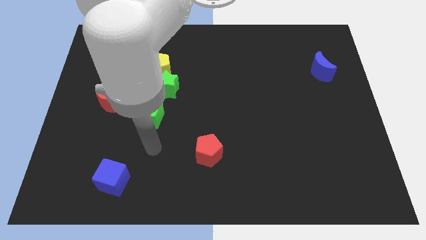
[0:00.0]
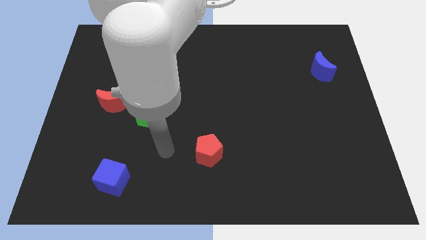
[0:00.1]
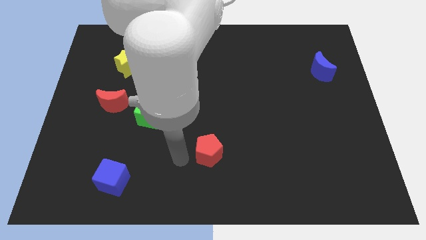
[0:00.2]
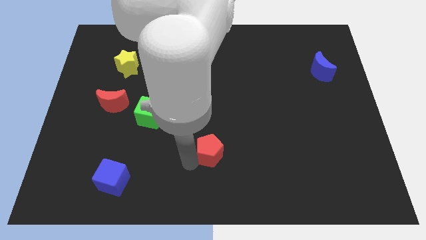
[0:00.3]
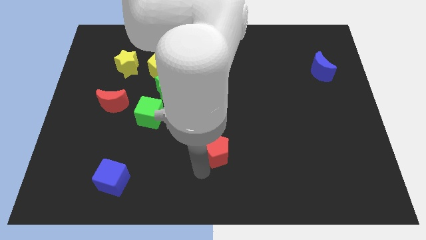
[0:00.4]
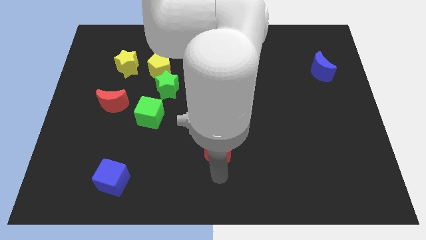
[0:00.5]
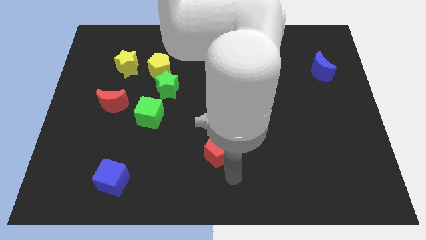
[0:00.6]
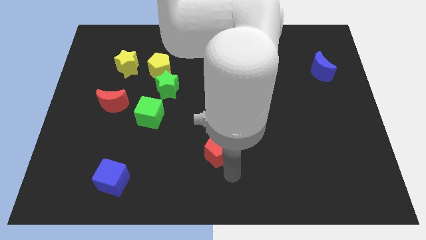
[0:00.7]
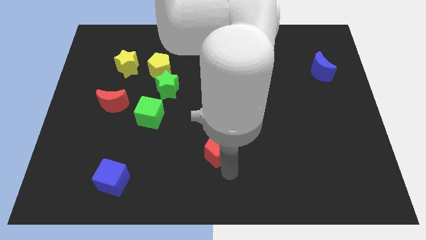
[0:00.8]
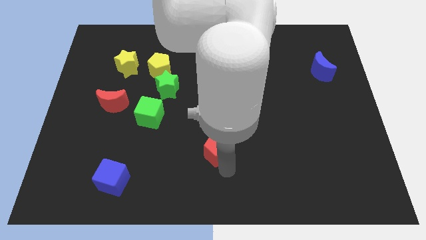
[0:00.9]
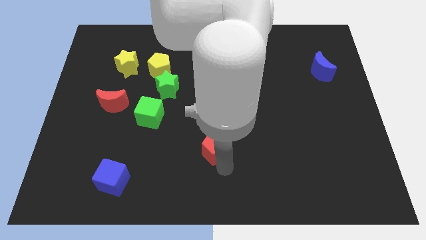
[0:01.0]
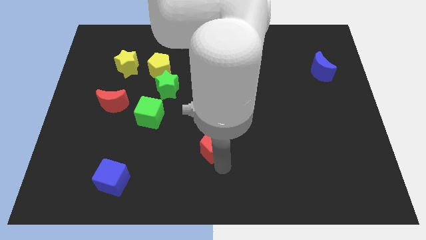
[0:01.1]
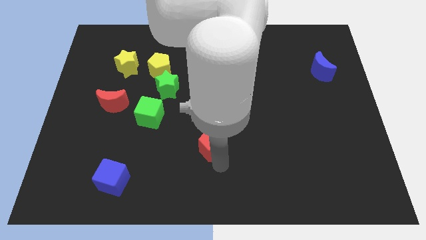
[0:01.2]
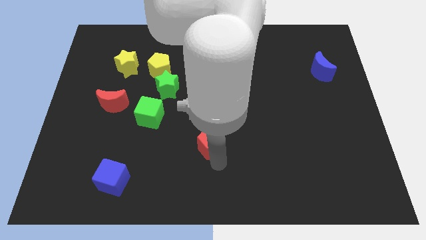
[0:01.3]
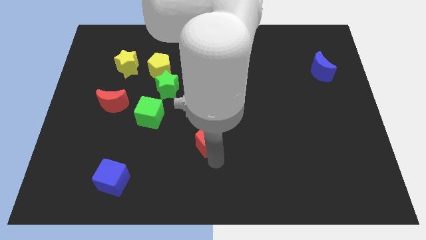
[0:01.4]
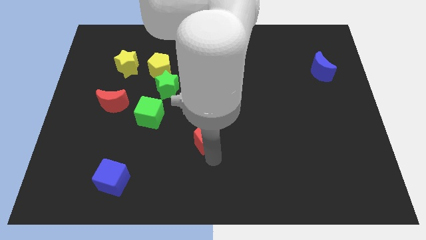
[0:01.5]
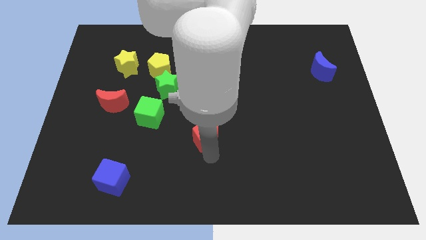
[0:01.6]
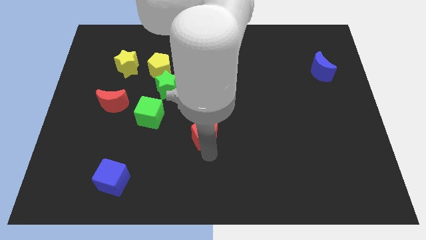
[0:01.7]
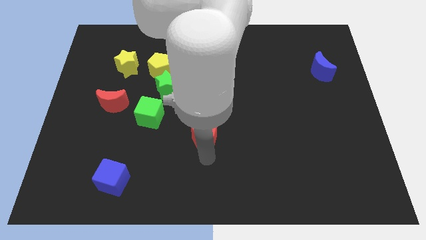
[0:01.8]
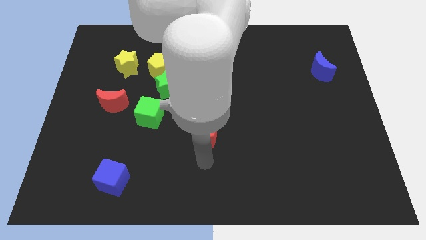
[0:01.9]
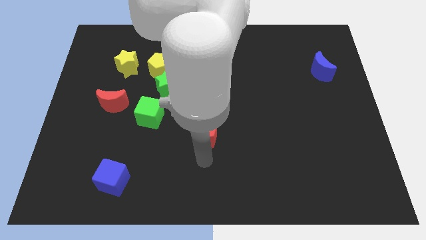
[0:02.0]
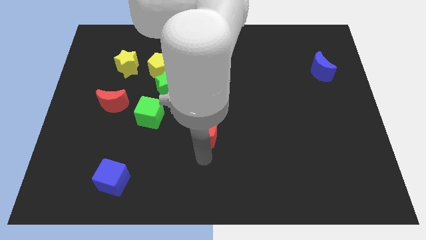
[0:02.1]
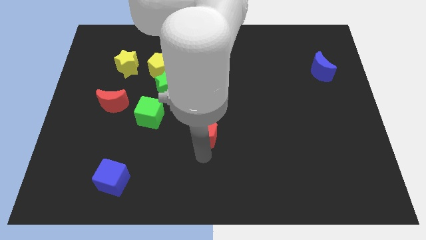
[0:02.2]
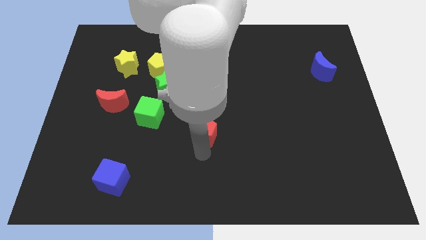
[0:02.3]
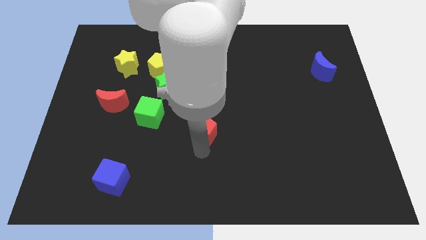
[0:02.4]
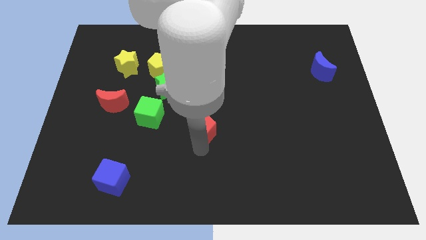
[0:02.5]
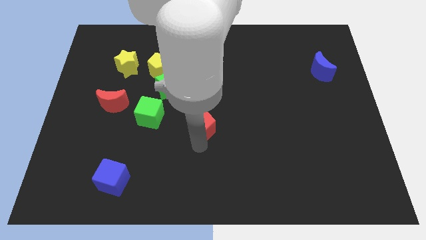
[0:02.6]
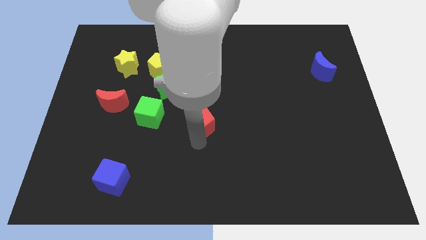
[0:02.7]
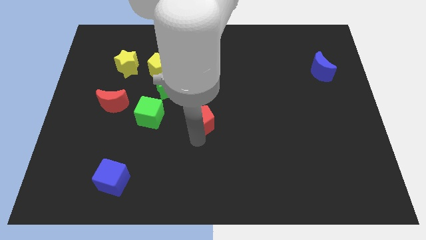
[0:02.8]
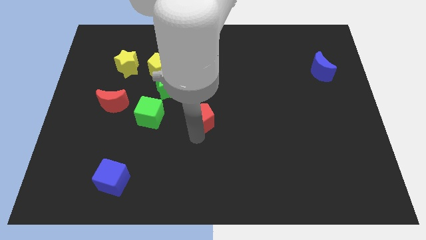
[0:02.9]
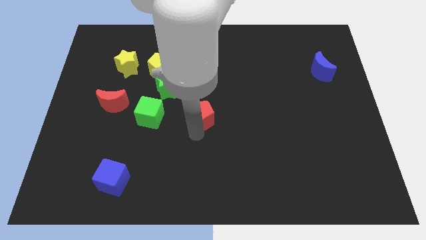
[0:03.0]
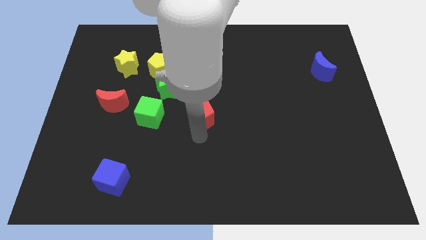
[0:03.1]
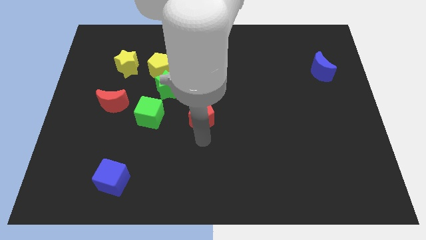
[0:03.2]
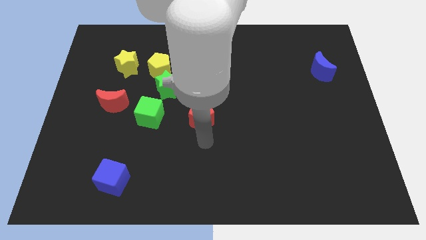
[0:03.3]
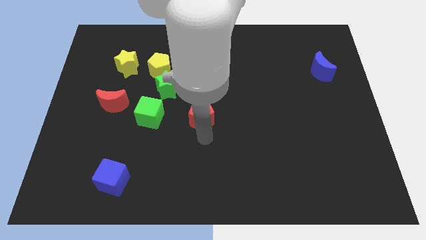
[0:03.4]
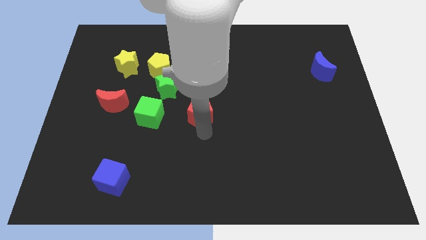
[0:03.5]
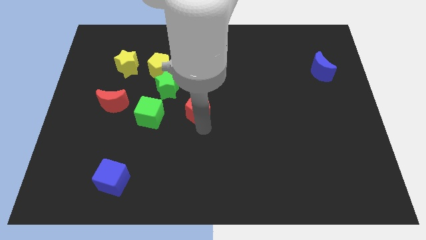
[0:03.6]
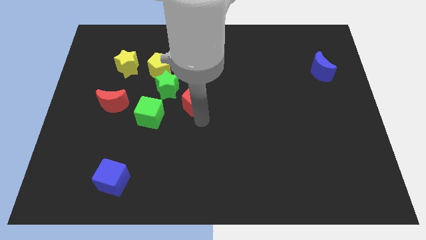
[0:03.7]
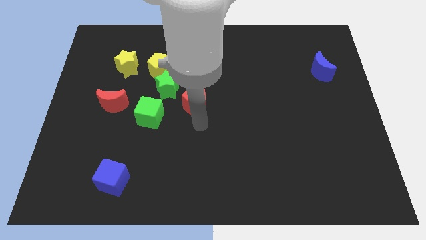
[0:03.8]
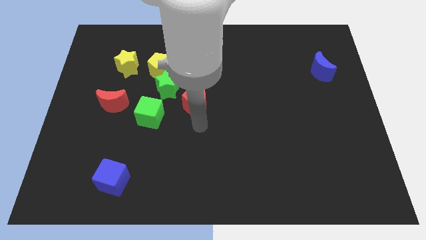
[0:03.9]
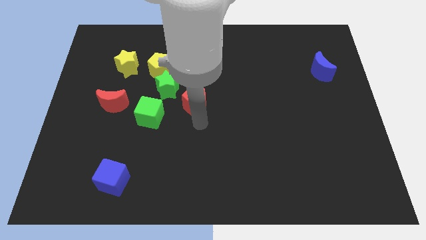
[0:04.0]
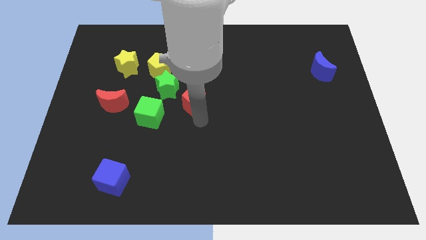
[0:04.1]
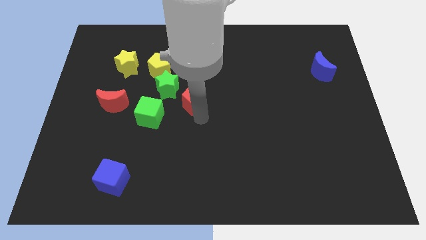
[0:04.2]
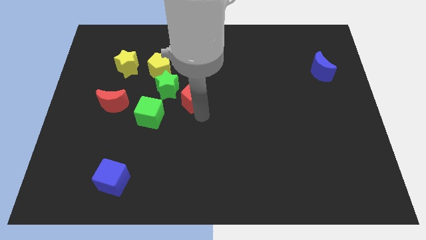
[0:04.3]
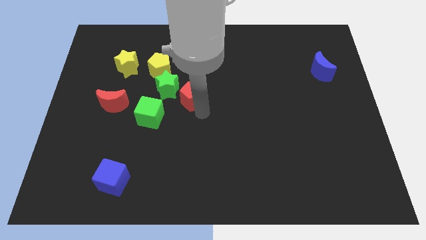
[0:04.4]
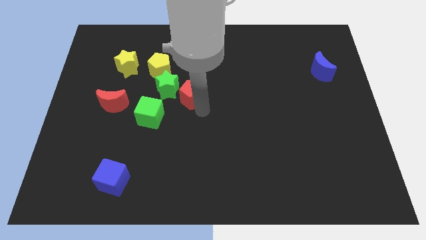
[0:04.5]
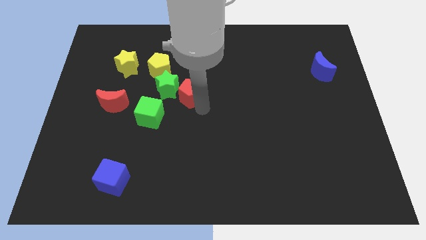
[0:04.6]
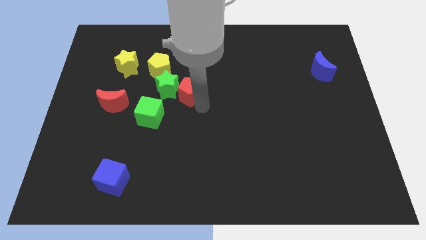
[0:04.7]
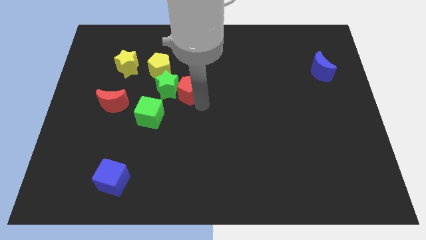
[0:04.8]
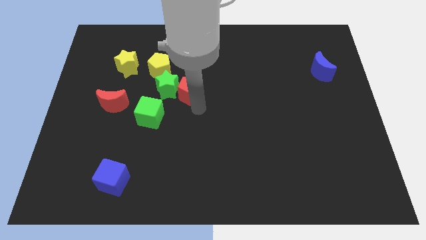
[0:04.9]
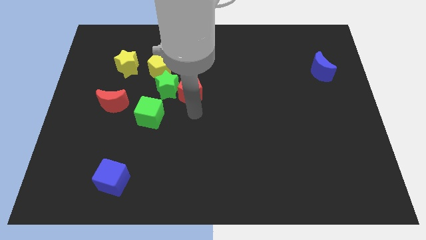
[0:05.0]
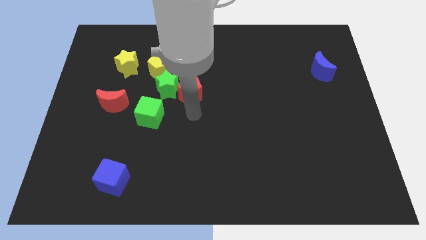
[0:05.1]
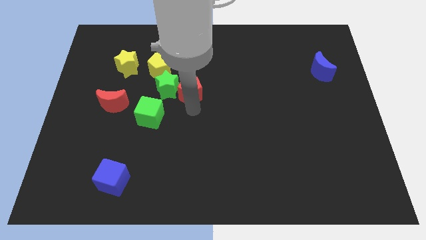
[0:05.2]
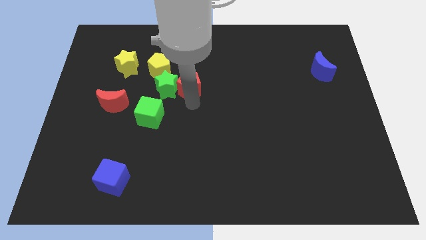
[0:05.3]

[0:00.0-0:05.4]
move the red pentagon to the top right of the green star

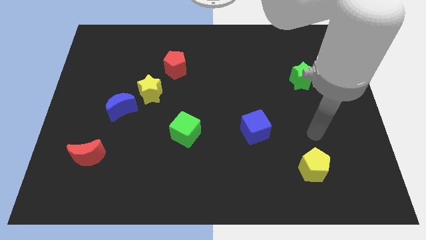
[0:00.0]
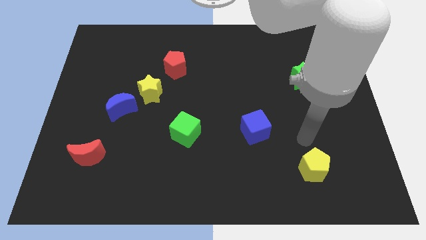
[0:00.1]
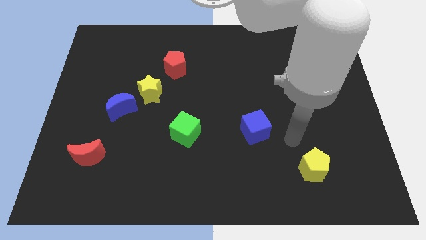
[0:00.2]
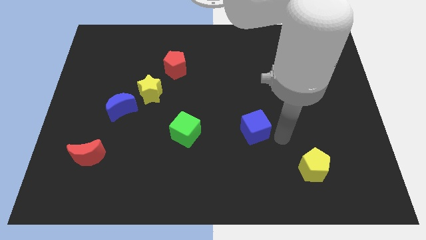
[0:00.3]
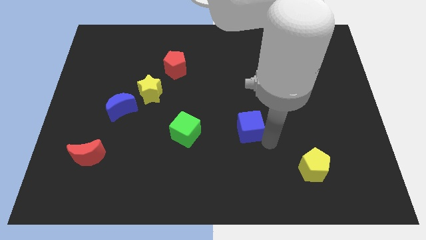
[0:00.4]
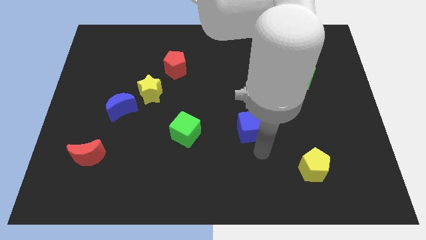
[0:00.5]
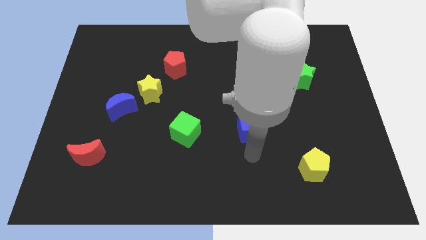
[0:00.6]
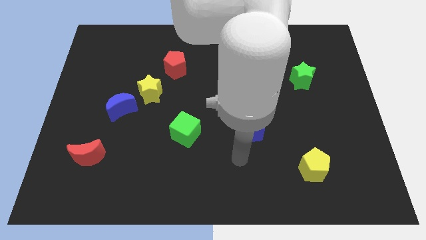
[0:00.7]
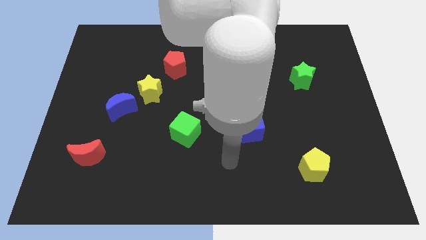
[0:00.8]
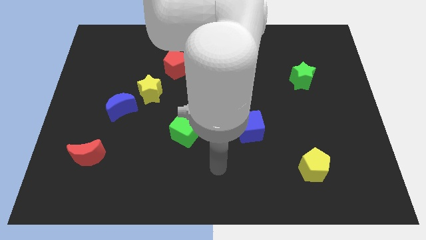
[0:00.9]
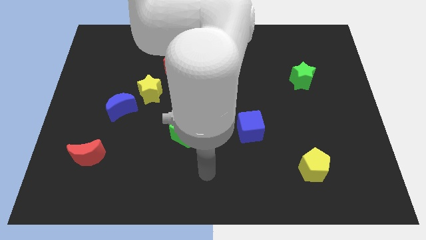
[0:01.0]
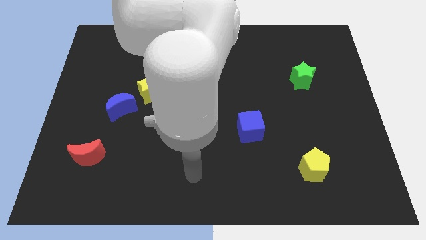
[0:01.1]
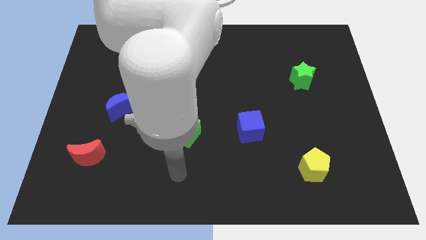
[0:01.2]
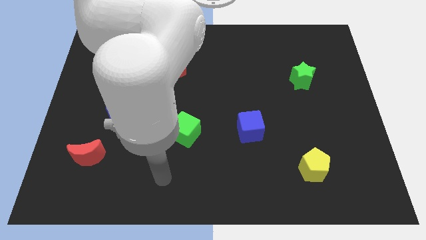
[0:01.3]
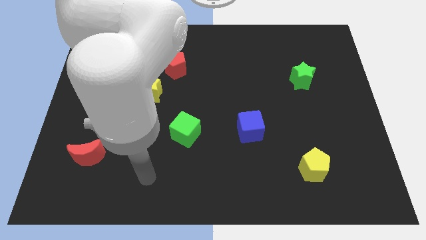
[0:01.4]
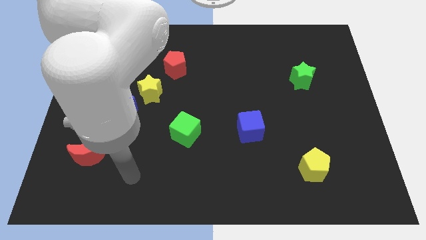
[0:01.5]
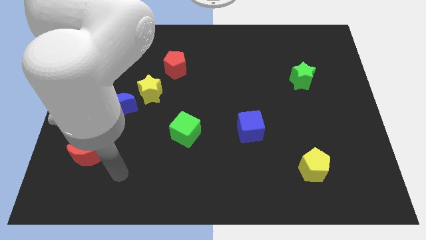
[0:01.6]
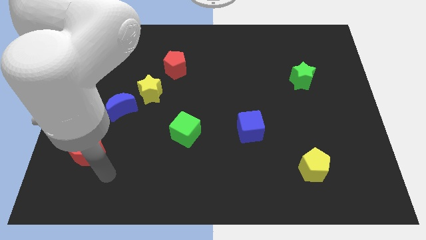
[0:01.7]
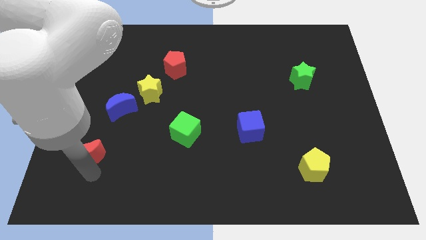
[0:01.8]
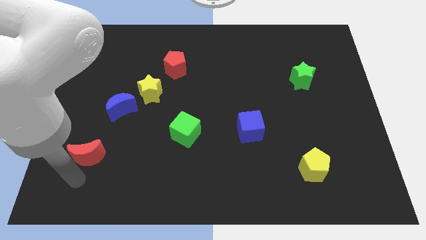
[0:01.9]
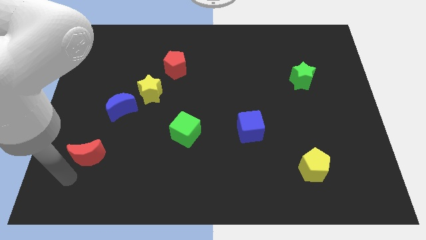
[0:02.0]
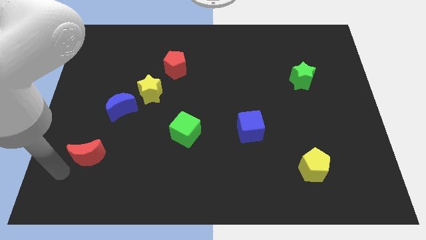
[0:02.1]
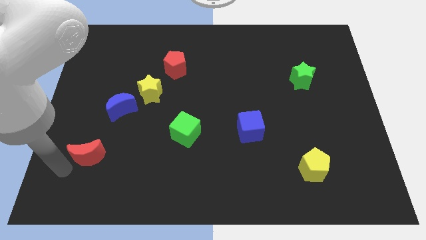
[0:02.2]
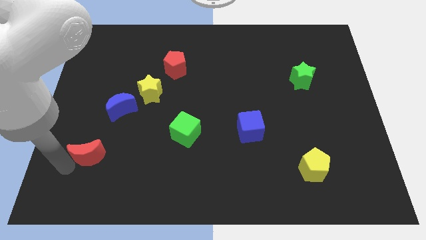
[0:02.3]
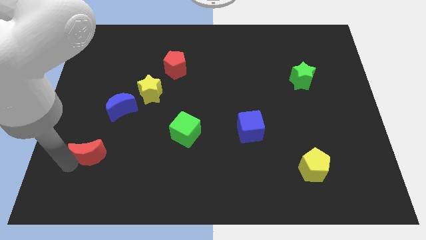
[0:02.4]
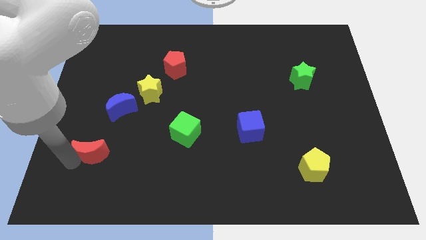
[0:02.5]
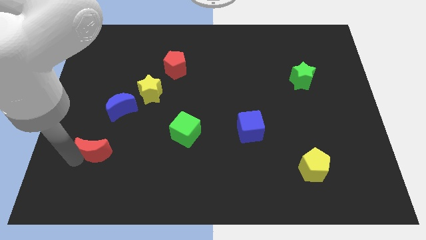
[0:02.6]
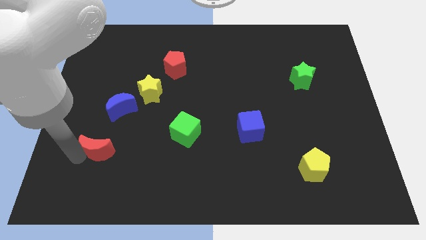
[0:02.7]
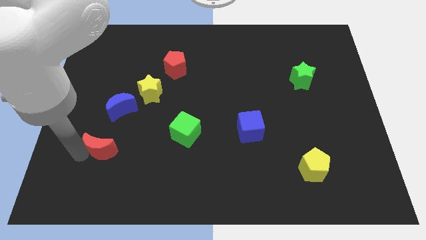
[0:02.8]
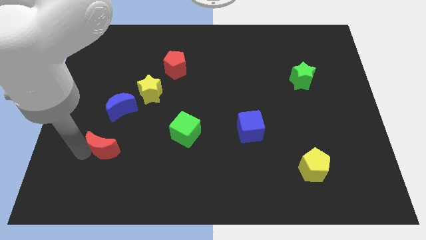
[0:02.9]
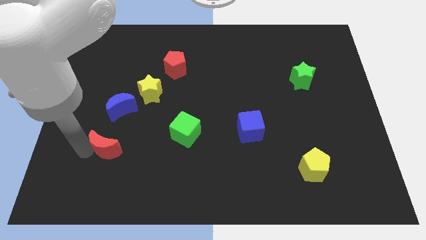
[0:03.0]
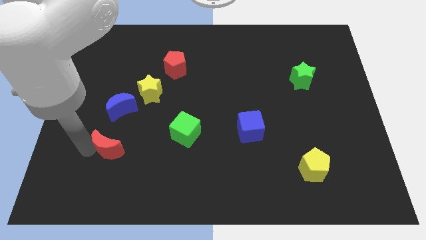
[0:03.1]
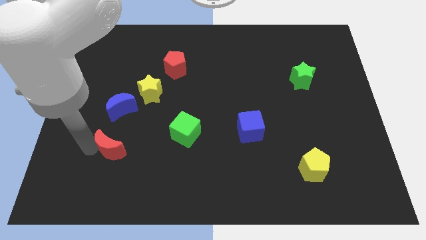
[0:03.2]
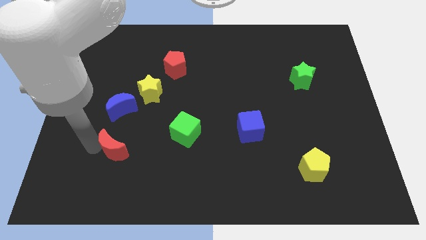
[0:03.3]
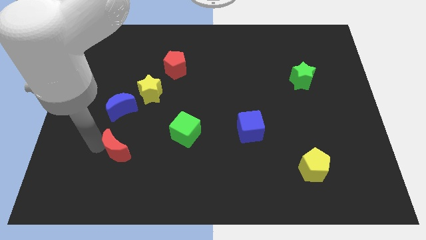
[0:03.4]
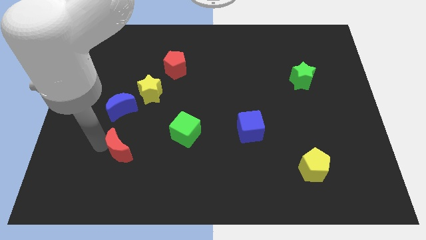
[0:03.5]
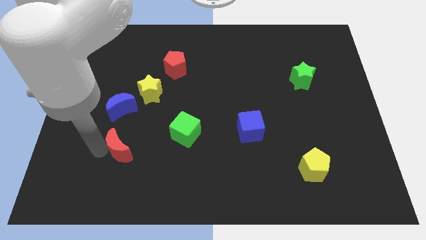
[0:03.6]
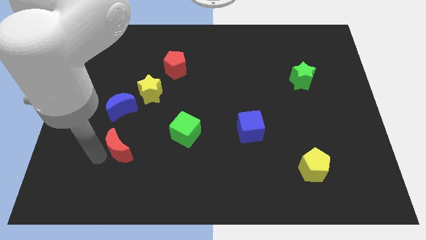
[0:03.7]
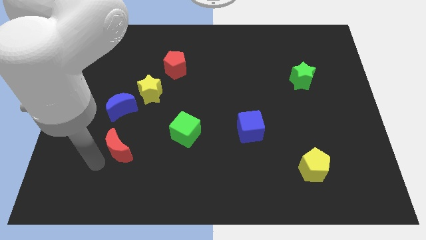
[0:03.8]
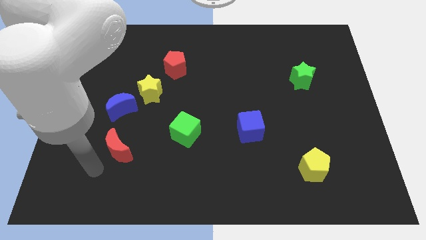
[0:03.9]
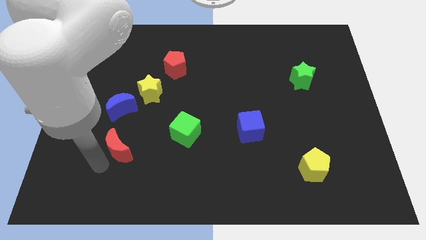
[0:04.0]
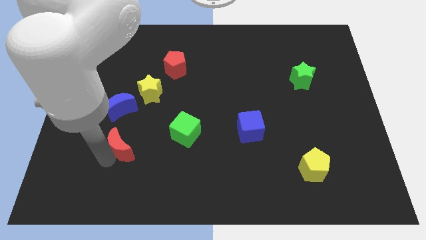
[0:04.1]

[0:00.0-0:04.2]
move the red moon left of the green cube
